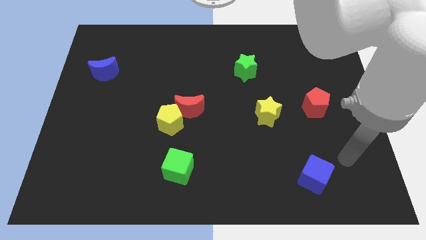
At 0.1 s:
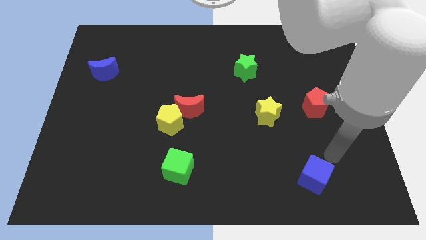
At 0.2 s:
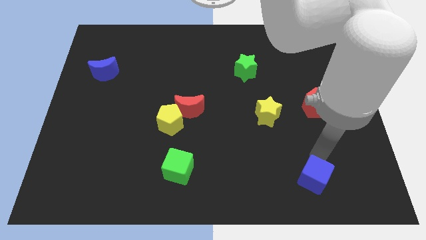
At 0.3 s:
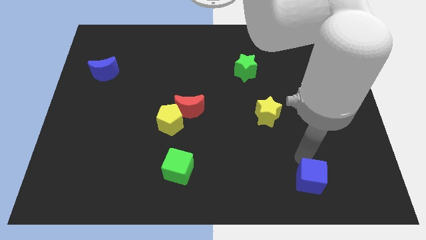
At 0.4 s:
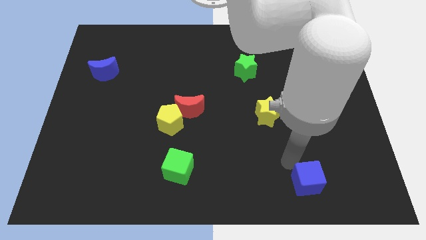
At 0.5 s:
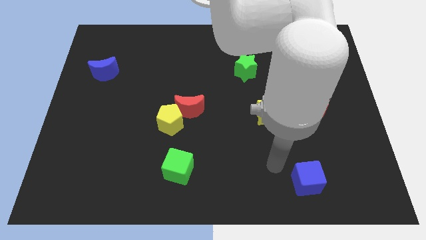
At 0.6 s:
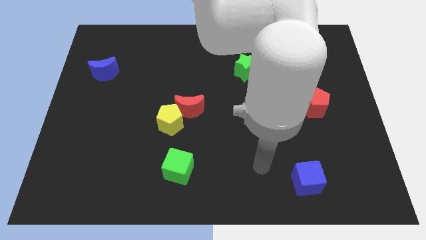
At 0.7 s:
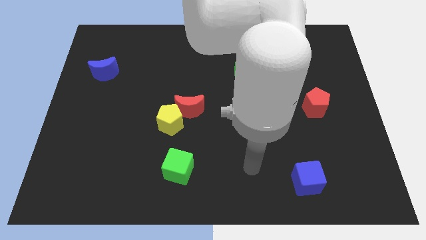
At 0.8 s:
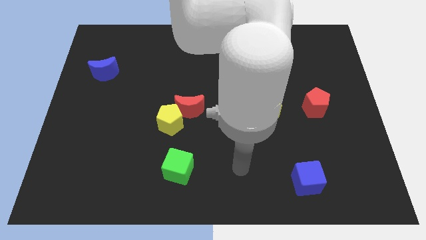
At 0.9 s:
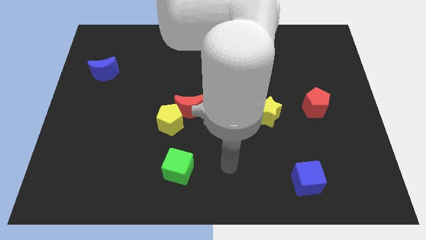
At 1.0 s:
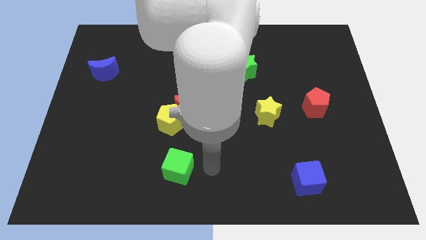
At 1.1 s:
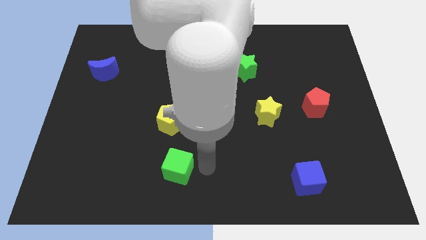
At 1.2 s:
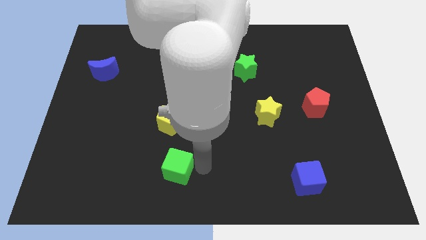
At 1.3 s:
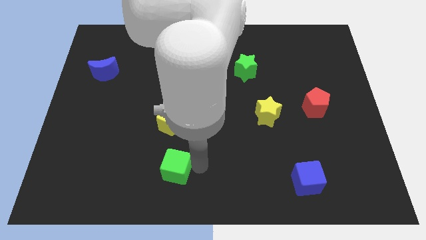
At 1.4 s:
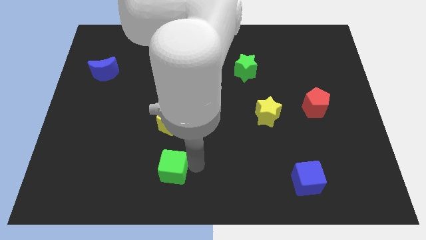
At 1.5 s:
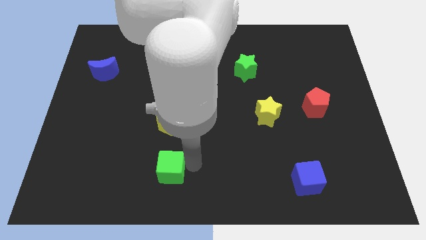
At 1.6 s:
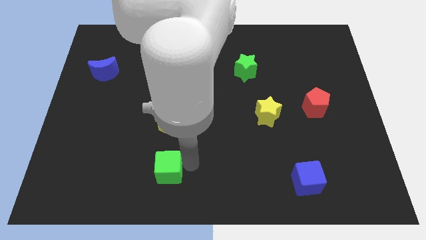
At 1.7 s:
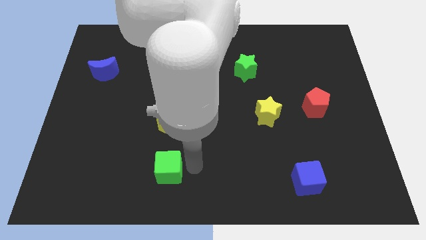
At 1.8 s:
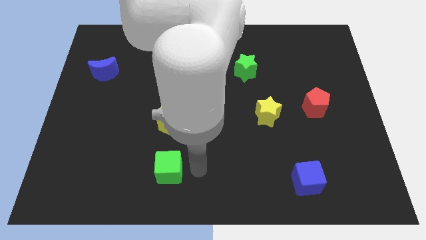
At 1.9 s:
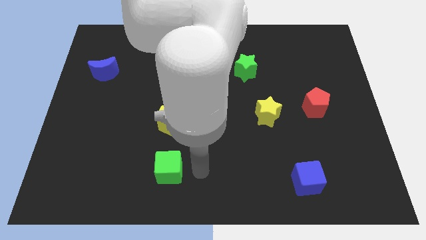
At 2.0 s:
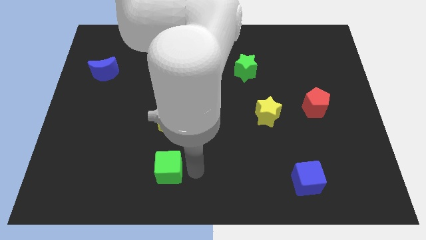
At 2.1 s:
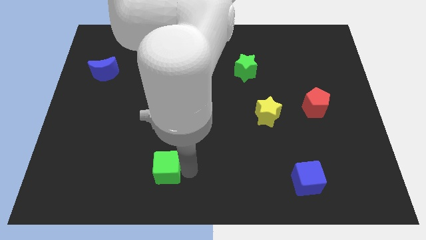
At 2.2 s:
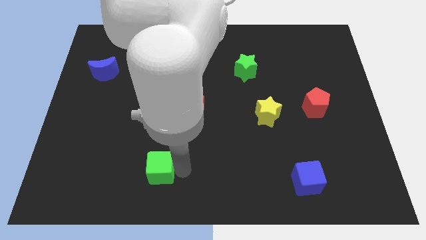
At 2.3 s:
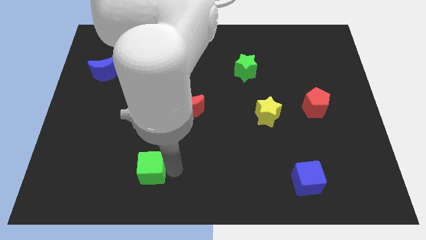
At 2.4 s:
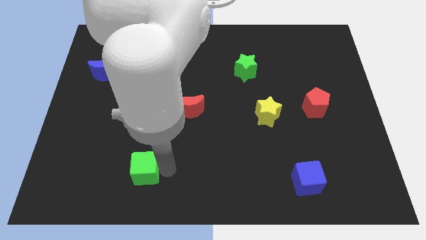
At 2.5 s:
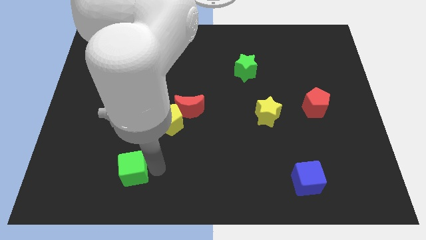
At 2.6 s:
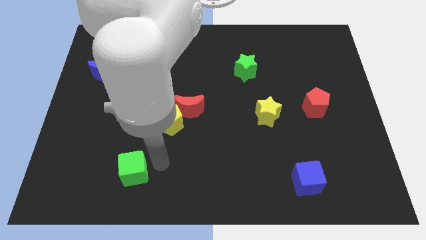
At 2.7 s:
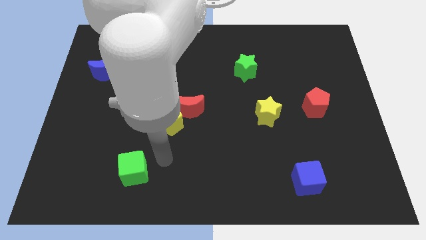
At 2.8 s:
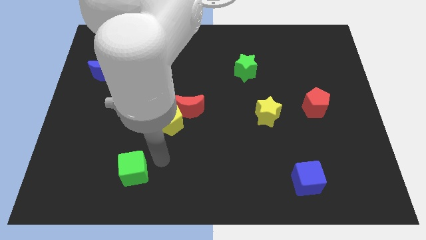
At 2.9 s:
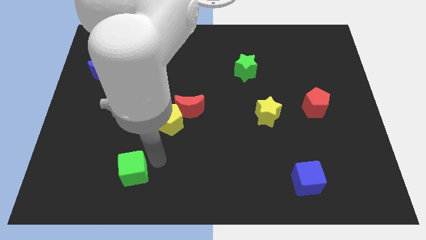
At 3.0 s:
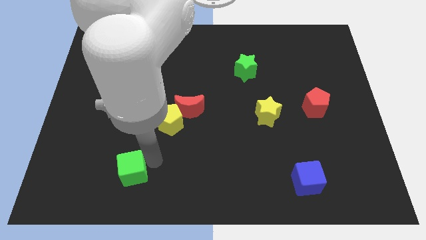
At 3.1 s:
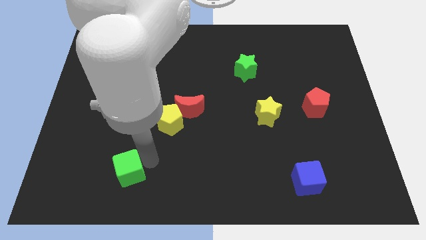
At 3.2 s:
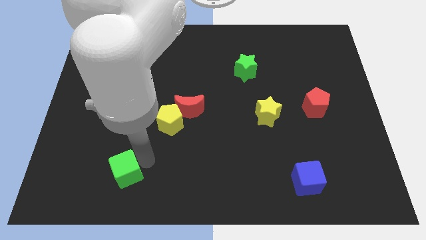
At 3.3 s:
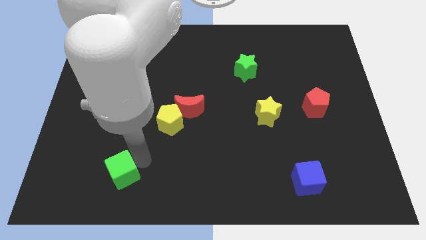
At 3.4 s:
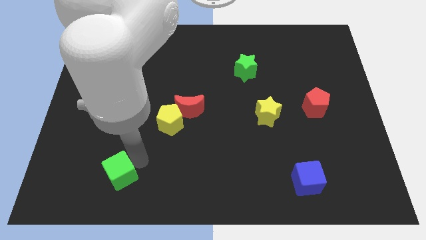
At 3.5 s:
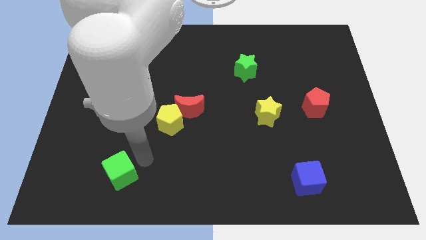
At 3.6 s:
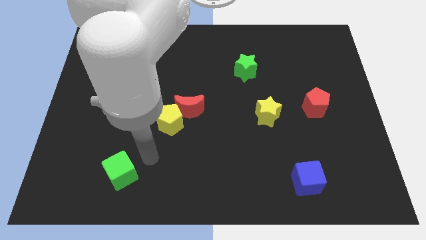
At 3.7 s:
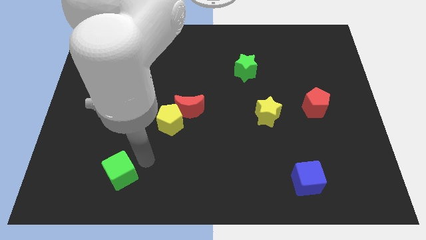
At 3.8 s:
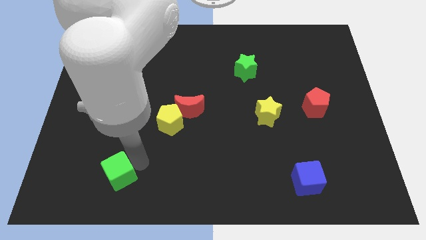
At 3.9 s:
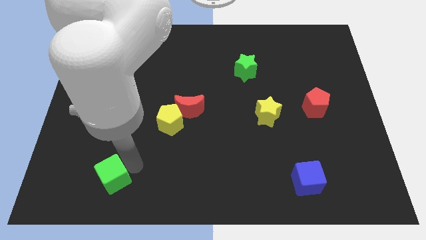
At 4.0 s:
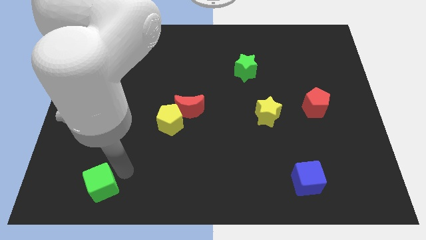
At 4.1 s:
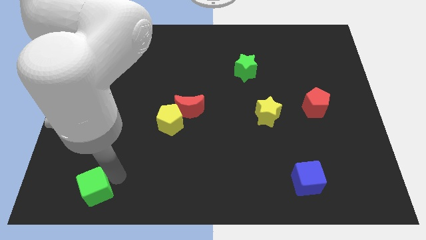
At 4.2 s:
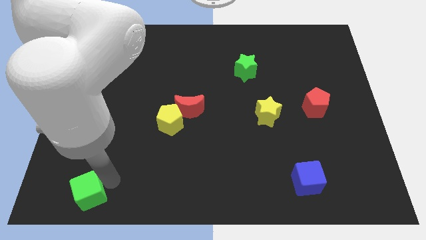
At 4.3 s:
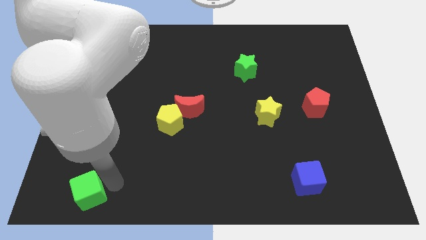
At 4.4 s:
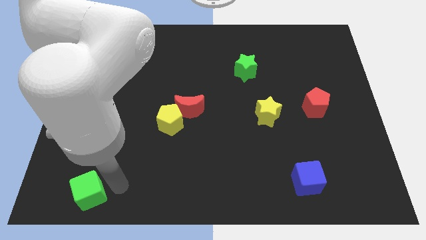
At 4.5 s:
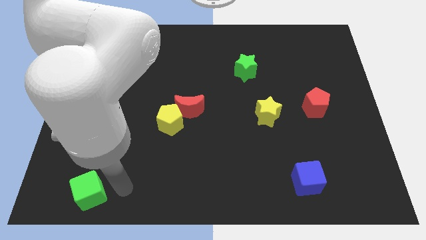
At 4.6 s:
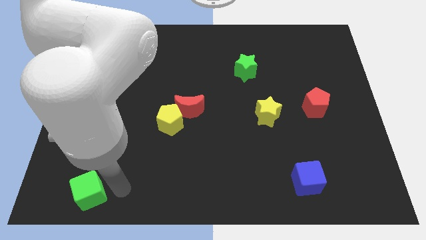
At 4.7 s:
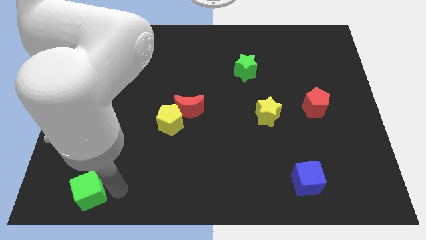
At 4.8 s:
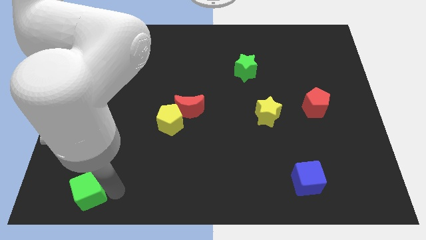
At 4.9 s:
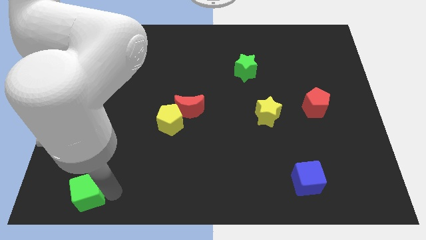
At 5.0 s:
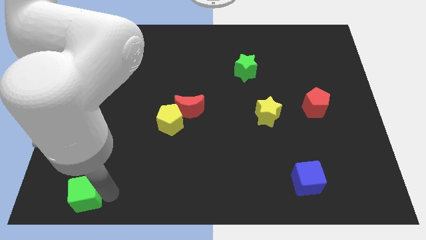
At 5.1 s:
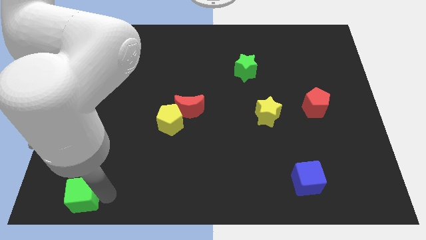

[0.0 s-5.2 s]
move the green cube to the bottom left corner

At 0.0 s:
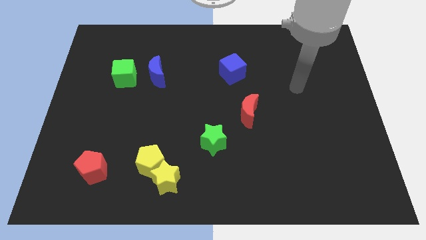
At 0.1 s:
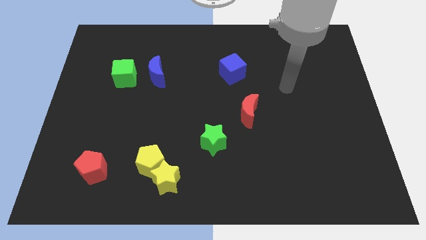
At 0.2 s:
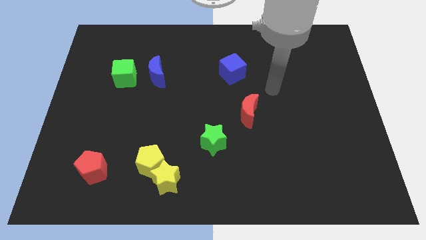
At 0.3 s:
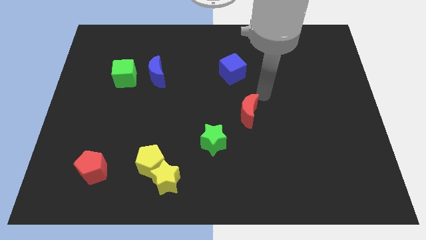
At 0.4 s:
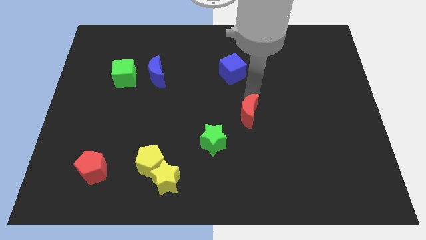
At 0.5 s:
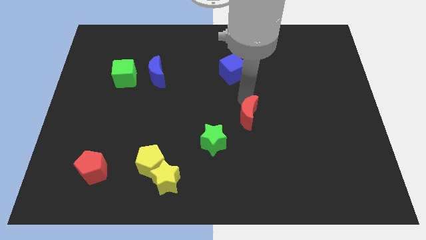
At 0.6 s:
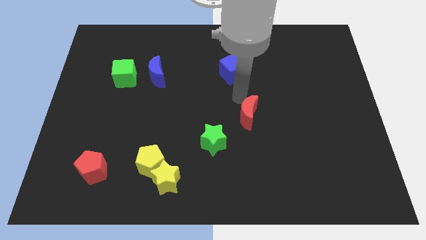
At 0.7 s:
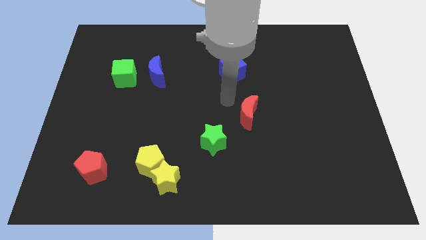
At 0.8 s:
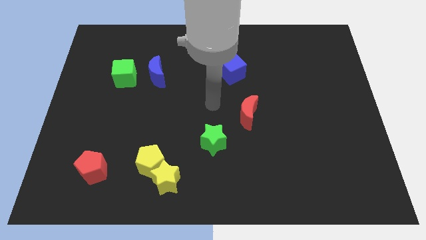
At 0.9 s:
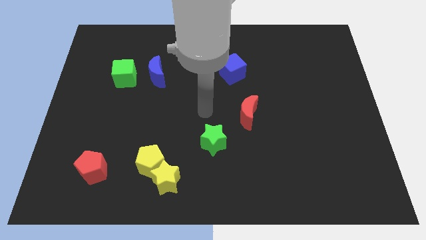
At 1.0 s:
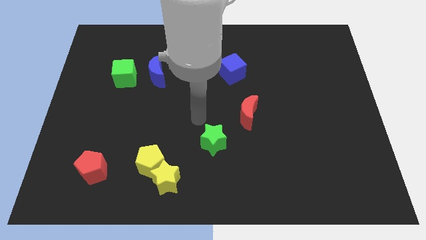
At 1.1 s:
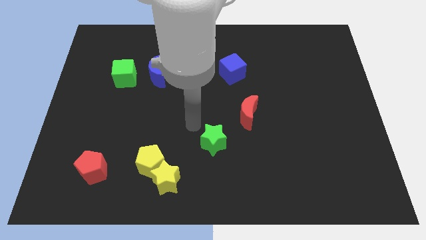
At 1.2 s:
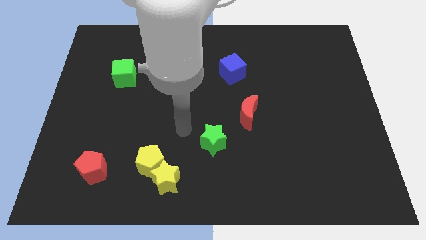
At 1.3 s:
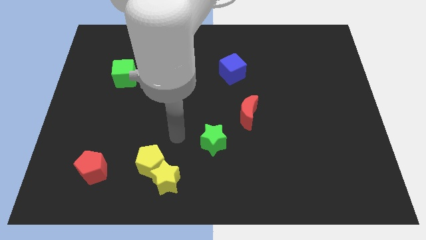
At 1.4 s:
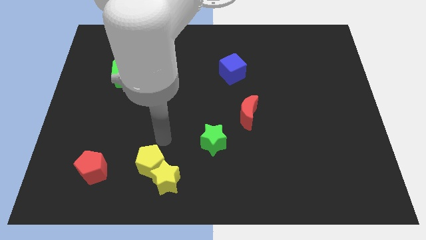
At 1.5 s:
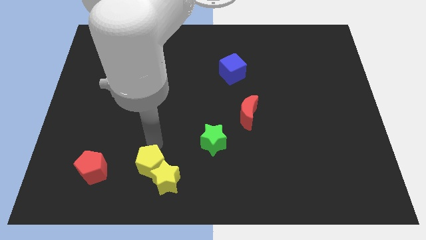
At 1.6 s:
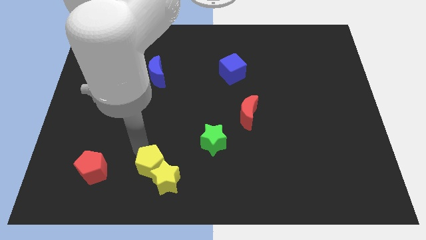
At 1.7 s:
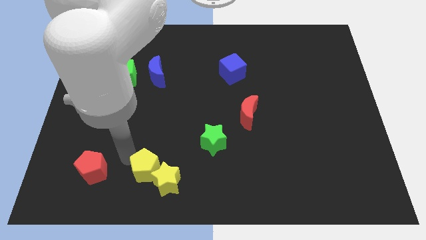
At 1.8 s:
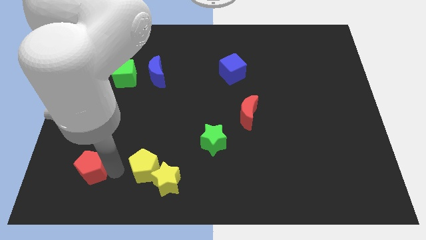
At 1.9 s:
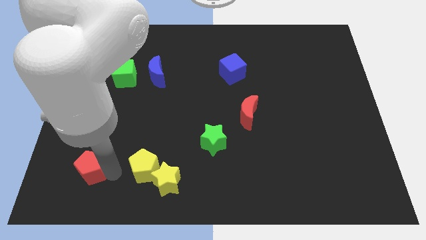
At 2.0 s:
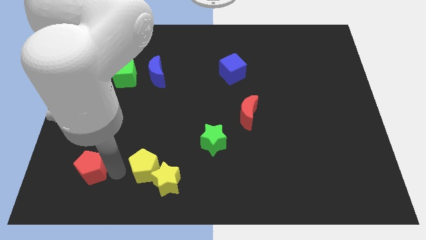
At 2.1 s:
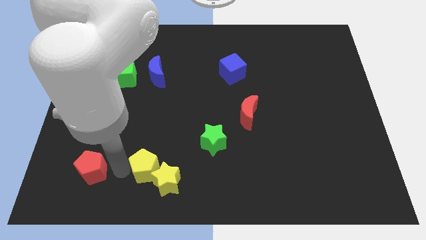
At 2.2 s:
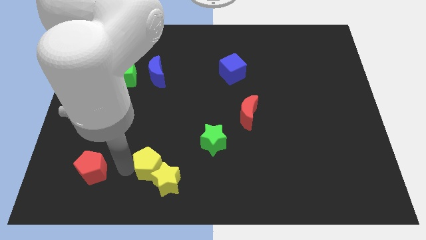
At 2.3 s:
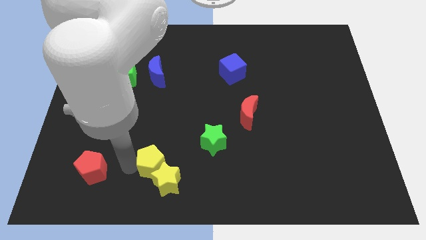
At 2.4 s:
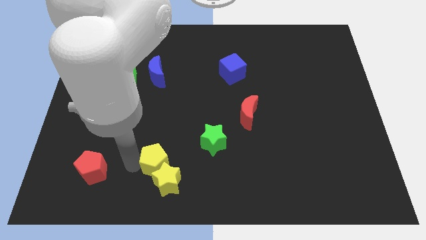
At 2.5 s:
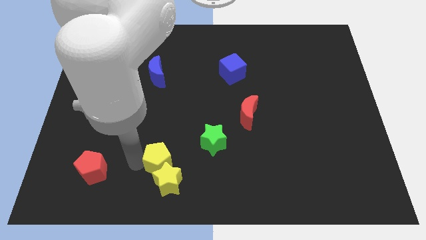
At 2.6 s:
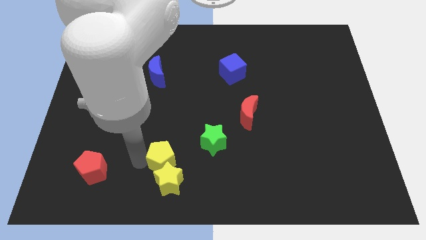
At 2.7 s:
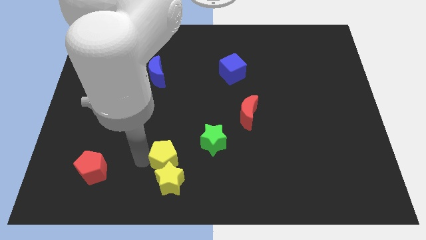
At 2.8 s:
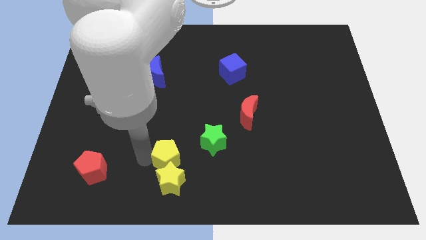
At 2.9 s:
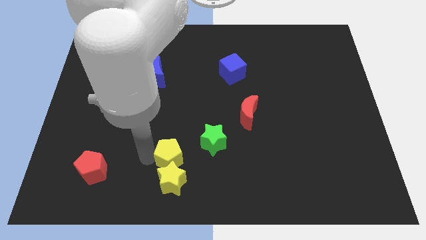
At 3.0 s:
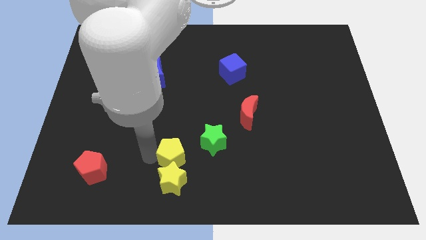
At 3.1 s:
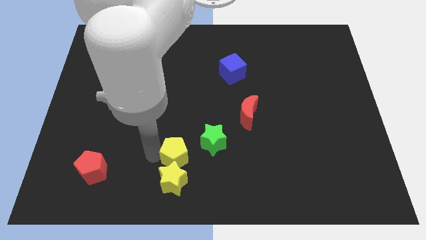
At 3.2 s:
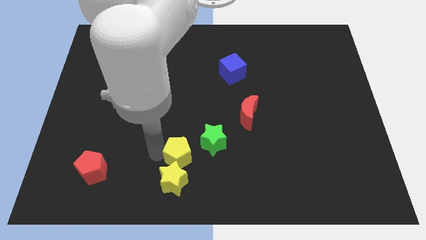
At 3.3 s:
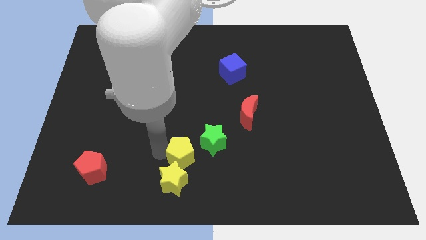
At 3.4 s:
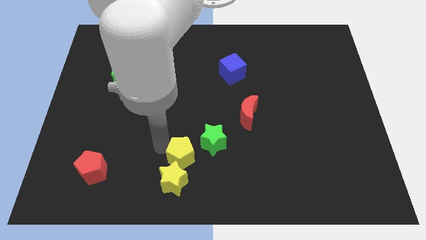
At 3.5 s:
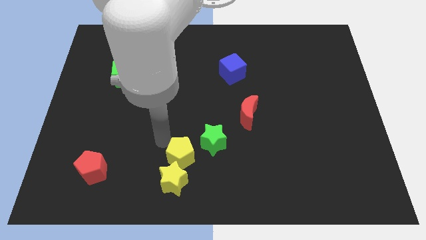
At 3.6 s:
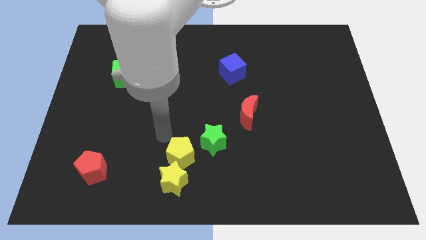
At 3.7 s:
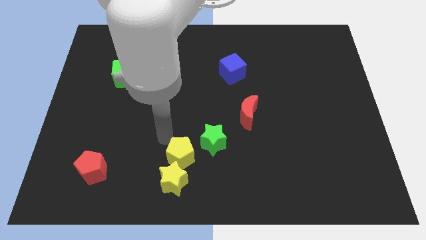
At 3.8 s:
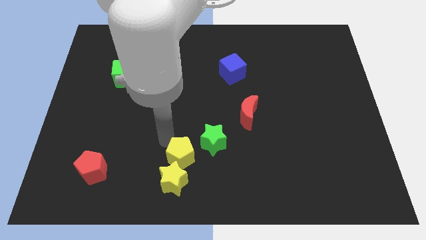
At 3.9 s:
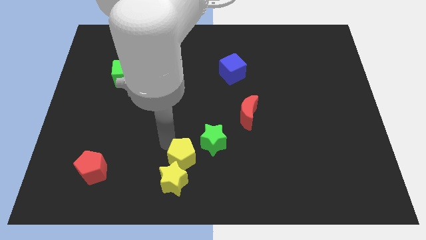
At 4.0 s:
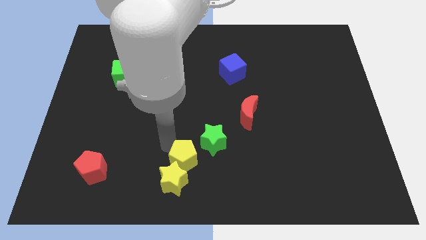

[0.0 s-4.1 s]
put the yellow pentagon to the bottom side
